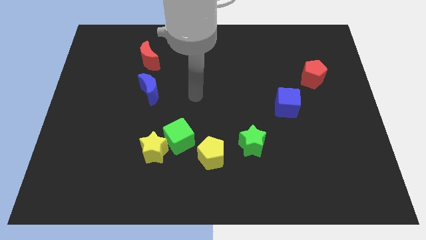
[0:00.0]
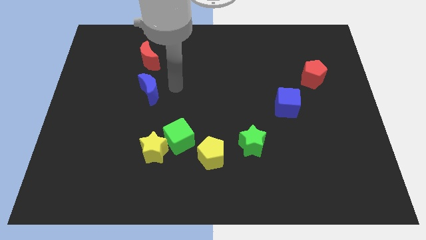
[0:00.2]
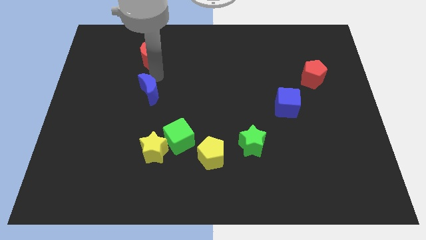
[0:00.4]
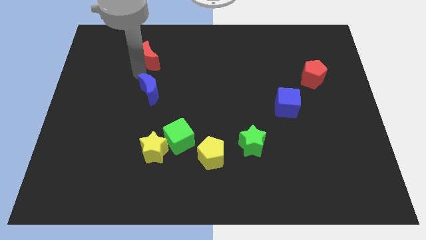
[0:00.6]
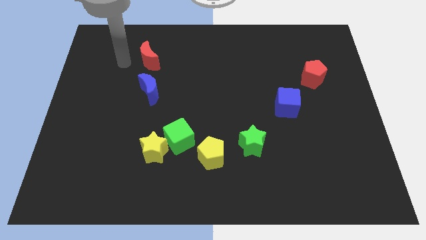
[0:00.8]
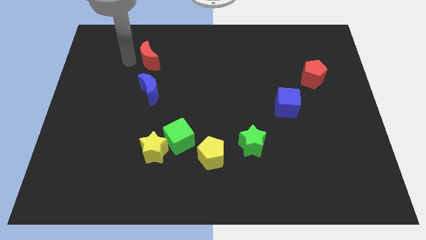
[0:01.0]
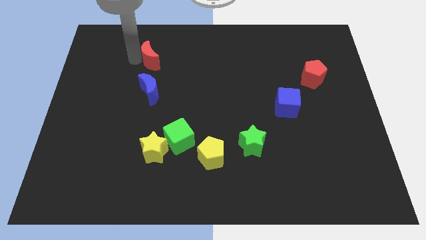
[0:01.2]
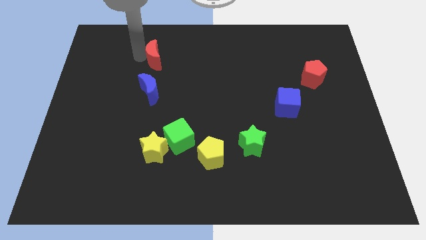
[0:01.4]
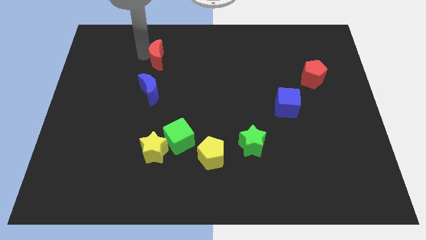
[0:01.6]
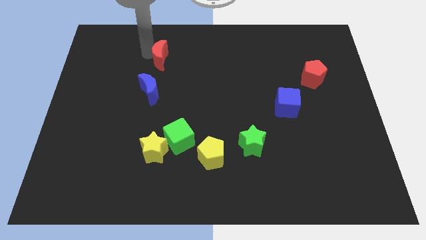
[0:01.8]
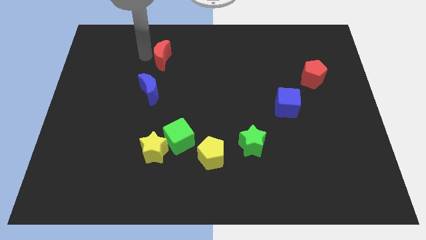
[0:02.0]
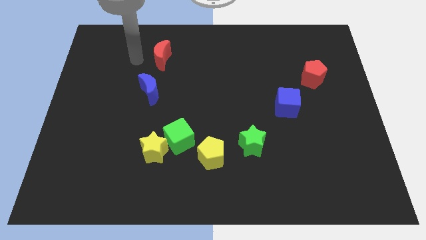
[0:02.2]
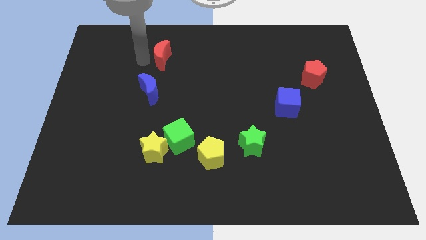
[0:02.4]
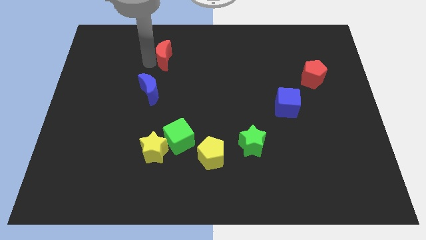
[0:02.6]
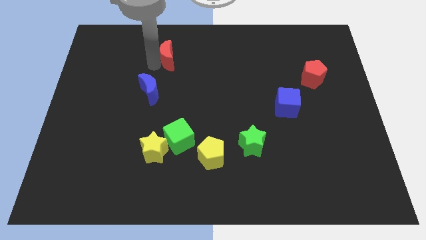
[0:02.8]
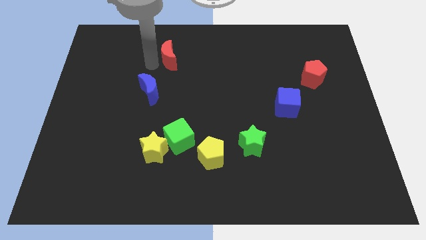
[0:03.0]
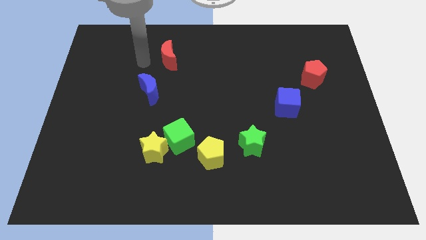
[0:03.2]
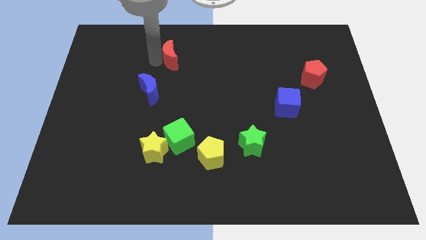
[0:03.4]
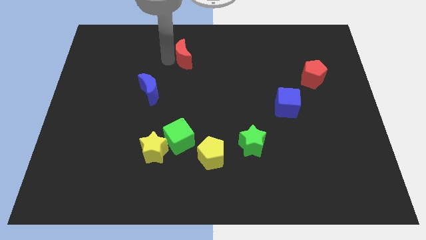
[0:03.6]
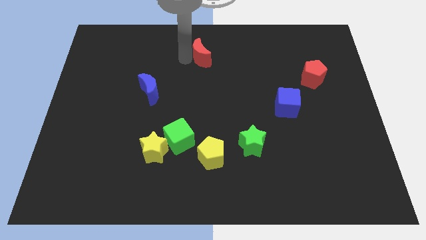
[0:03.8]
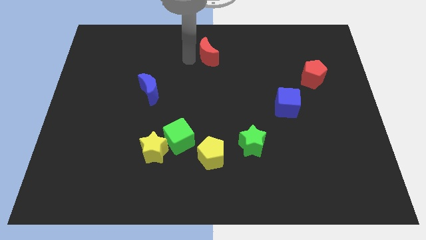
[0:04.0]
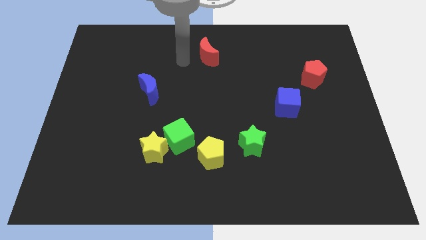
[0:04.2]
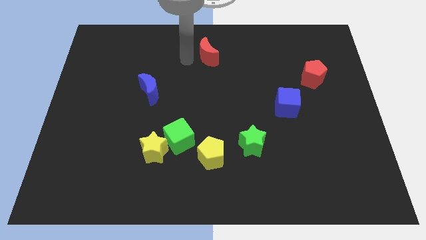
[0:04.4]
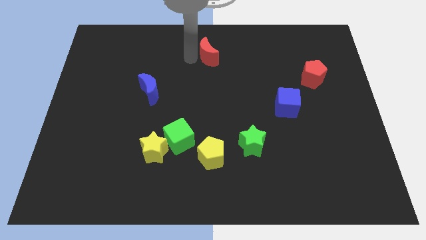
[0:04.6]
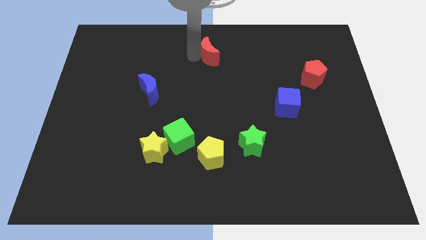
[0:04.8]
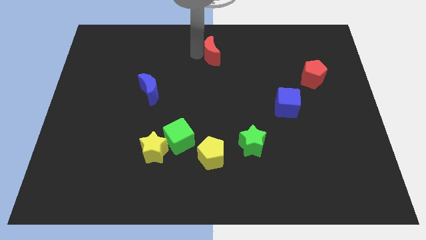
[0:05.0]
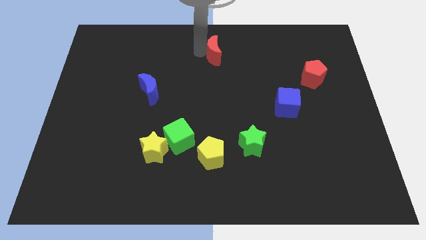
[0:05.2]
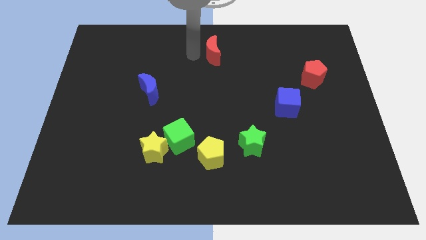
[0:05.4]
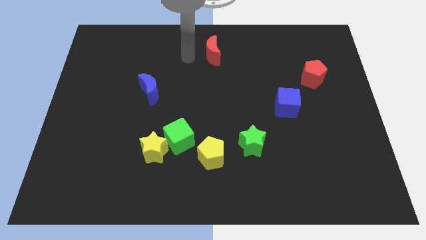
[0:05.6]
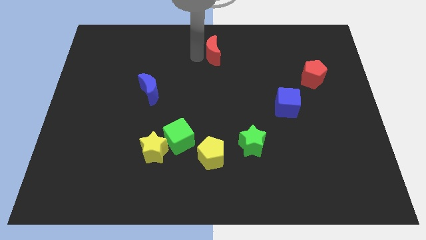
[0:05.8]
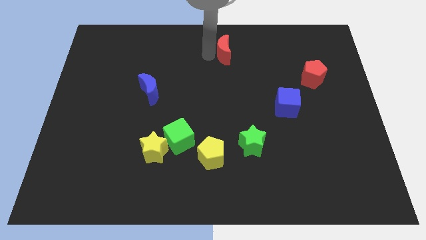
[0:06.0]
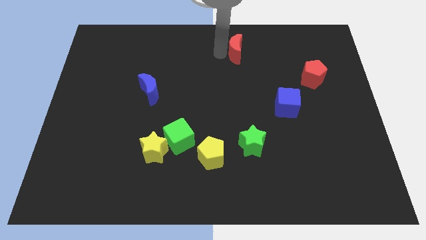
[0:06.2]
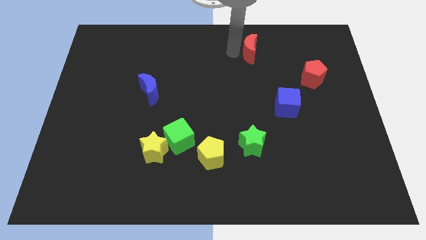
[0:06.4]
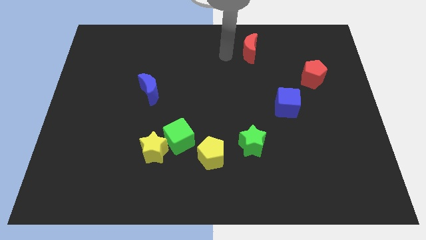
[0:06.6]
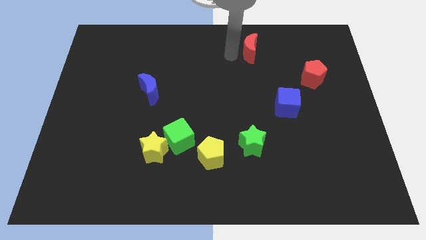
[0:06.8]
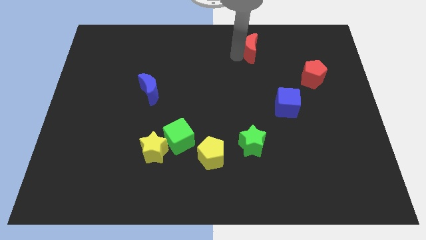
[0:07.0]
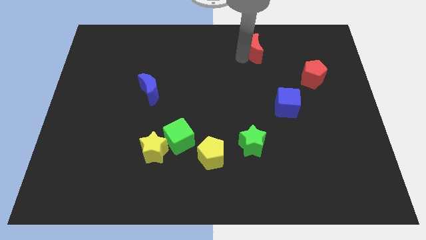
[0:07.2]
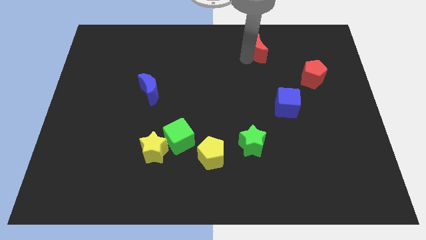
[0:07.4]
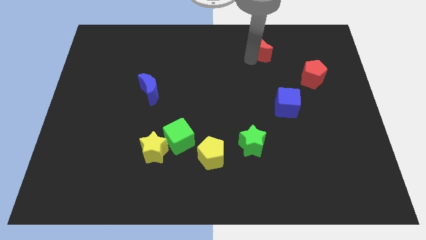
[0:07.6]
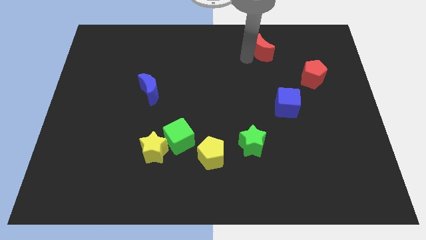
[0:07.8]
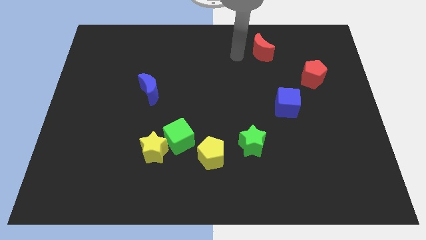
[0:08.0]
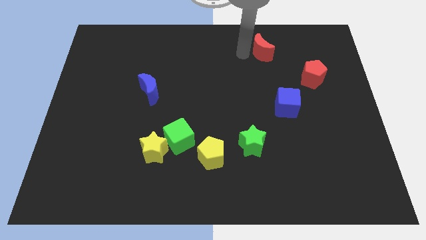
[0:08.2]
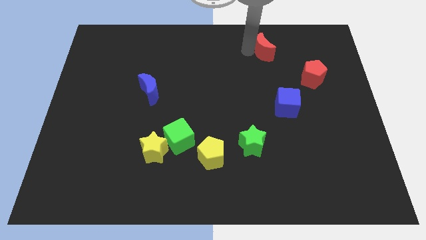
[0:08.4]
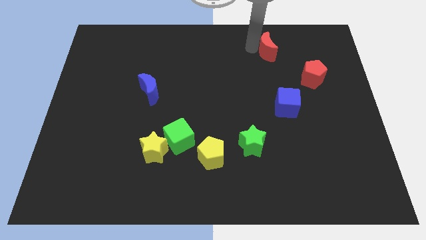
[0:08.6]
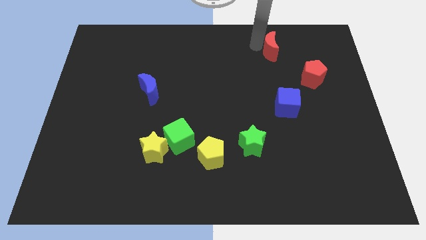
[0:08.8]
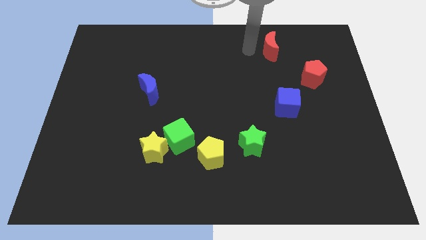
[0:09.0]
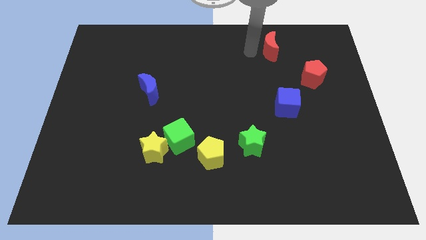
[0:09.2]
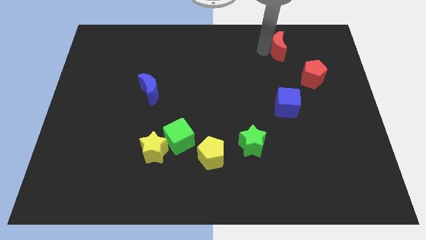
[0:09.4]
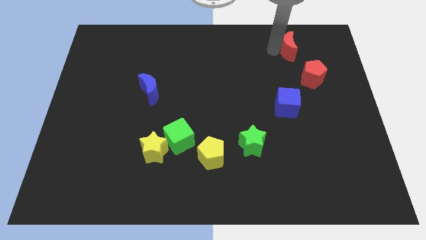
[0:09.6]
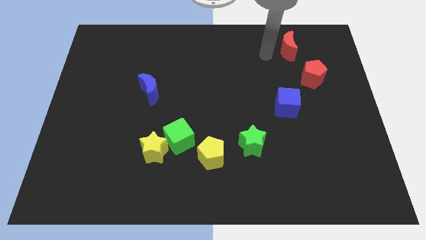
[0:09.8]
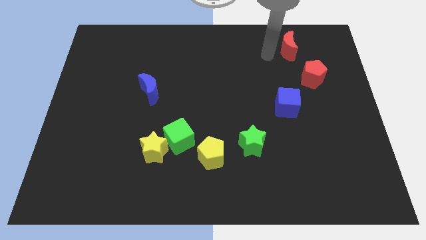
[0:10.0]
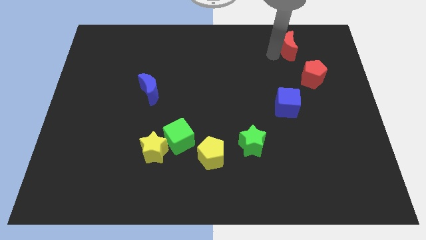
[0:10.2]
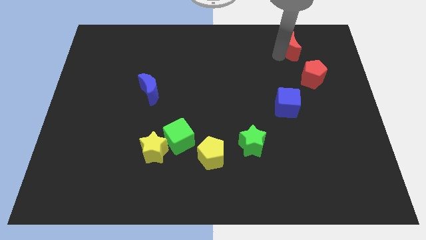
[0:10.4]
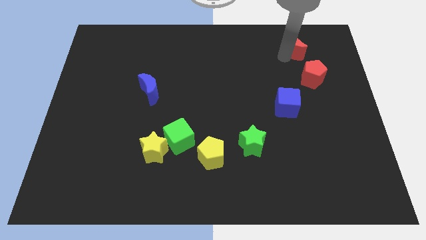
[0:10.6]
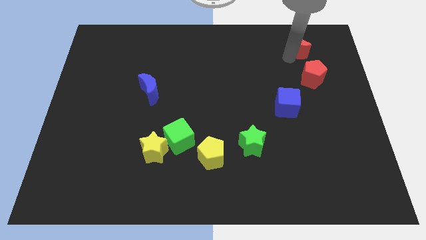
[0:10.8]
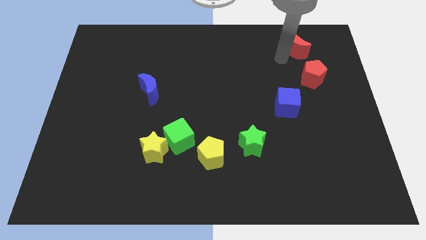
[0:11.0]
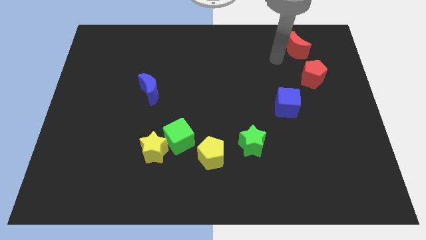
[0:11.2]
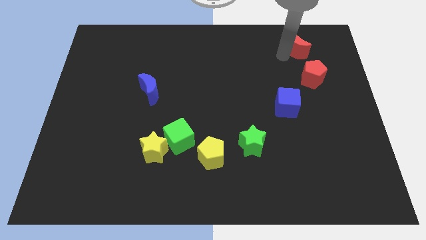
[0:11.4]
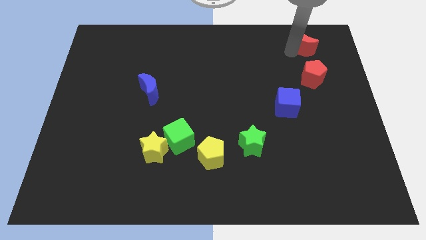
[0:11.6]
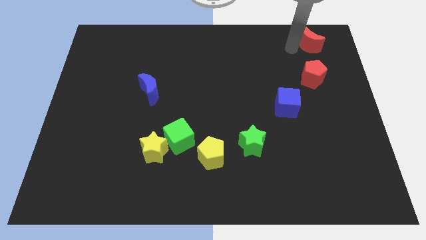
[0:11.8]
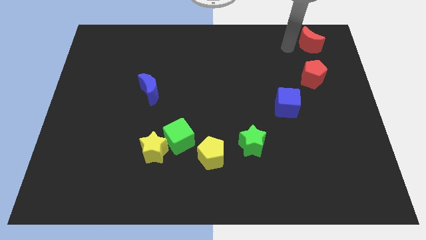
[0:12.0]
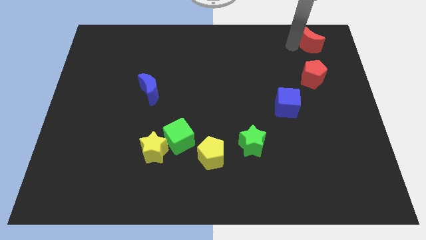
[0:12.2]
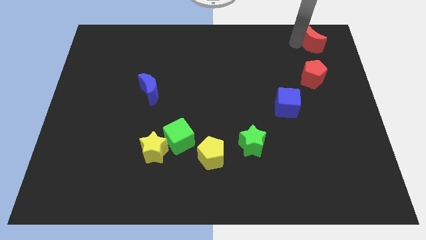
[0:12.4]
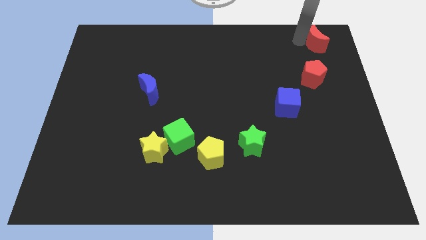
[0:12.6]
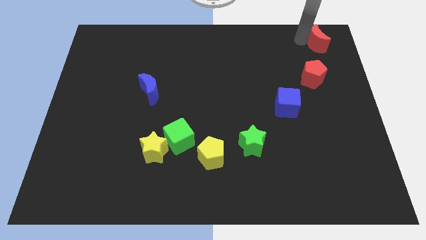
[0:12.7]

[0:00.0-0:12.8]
slide the red moon to the top right corner
